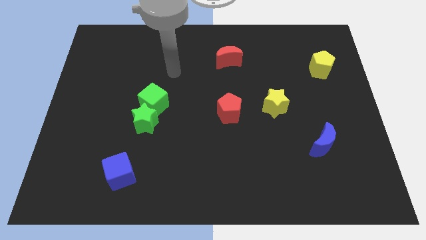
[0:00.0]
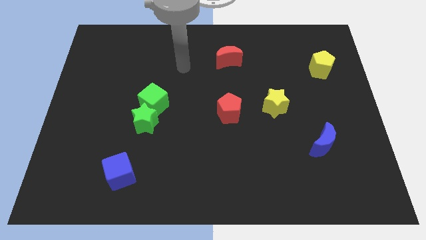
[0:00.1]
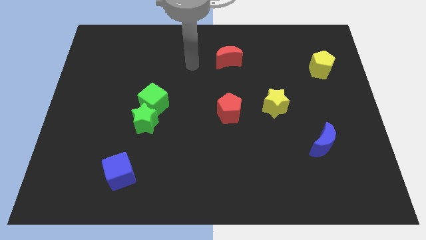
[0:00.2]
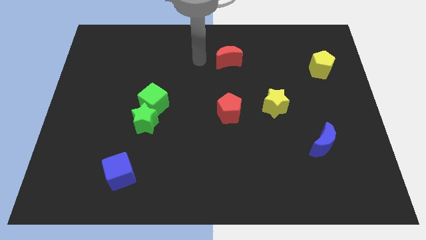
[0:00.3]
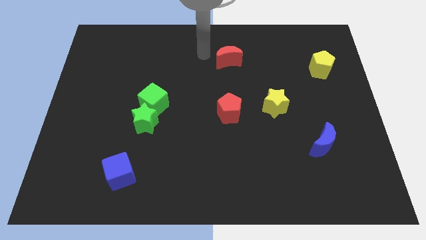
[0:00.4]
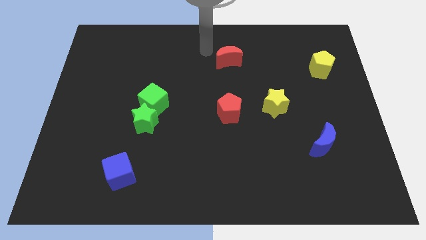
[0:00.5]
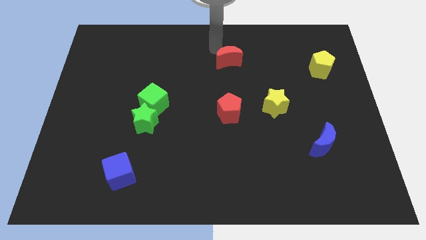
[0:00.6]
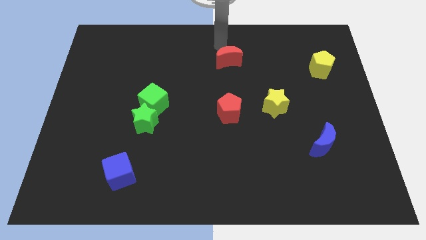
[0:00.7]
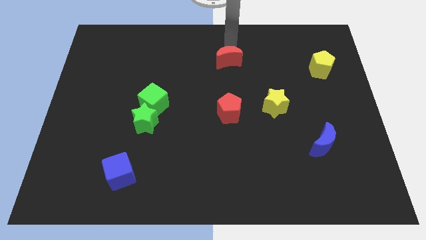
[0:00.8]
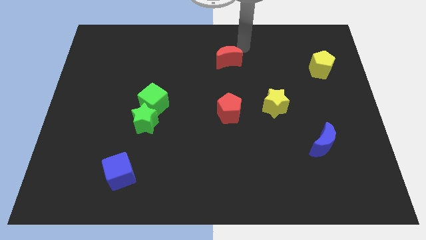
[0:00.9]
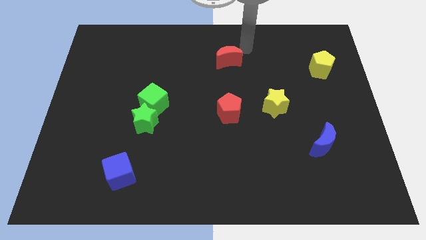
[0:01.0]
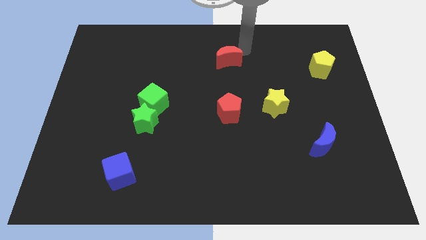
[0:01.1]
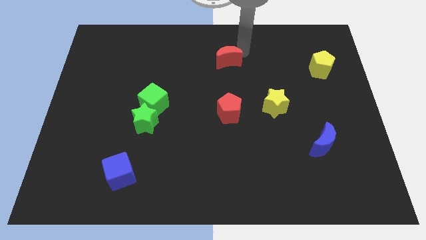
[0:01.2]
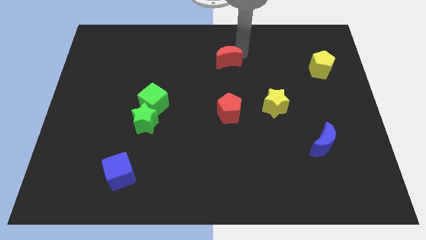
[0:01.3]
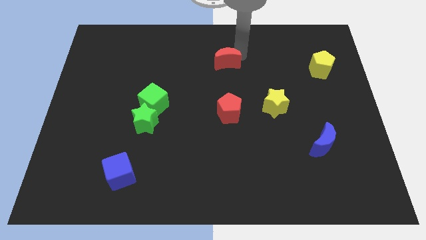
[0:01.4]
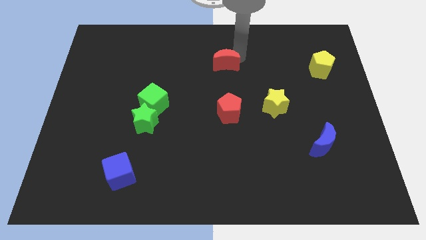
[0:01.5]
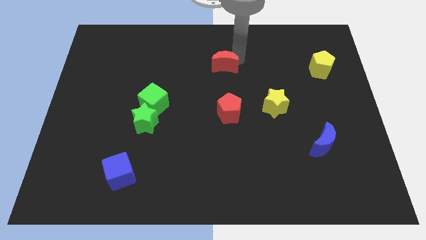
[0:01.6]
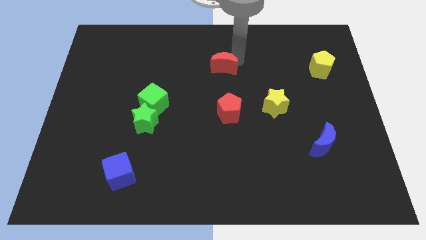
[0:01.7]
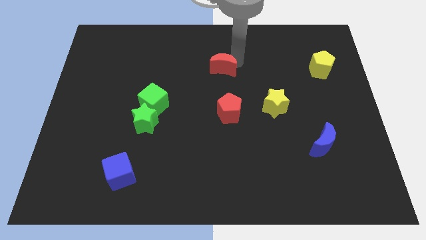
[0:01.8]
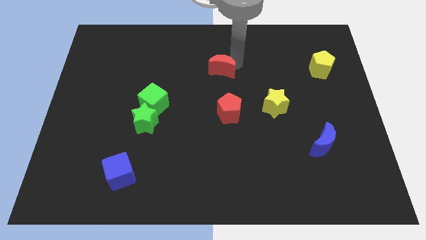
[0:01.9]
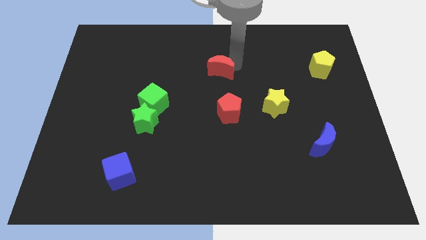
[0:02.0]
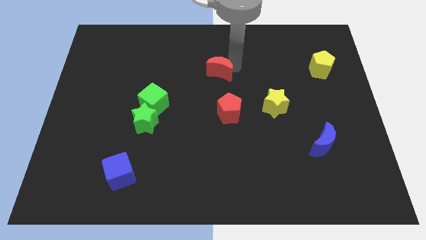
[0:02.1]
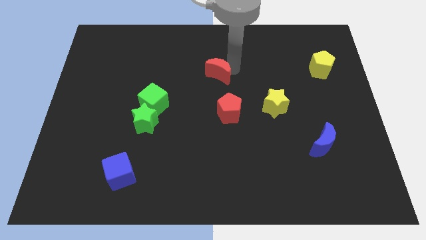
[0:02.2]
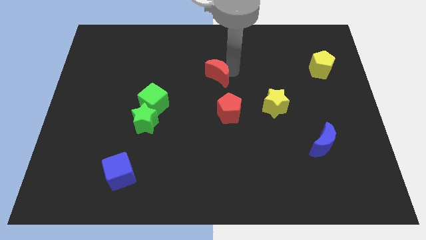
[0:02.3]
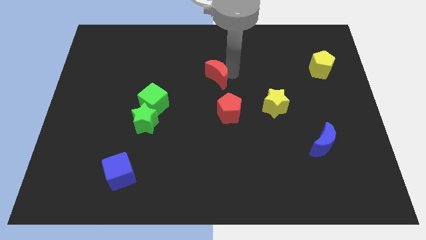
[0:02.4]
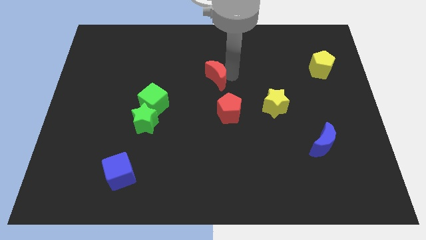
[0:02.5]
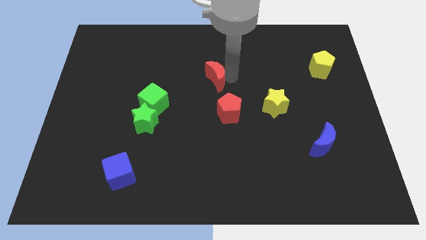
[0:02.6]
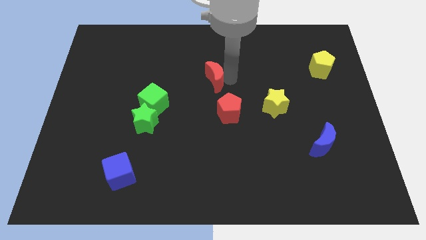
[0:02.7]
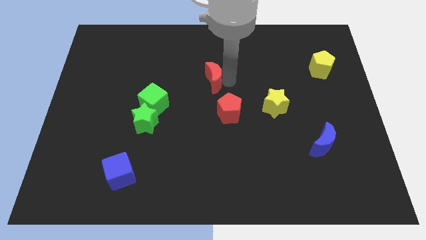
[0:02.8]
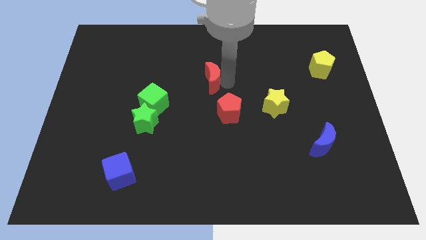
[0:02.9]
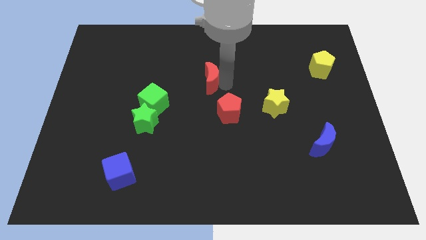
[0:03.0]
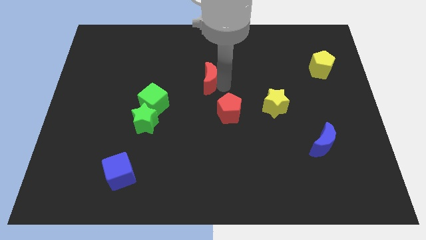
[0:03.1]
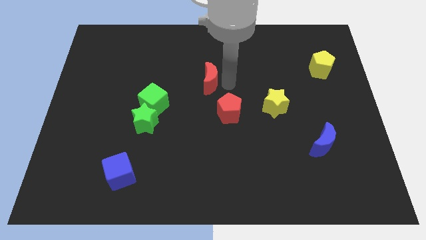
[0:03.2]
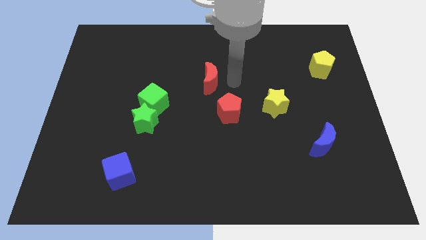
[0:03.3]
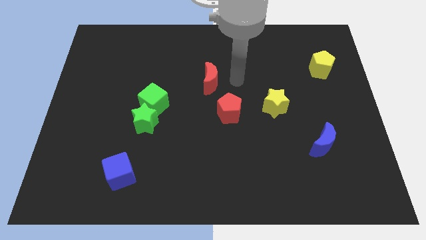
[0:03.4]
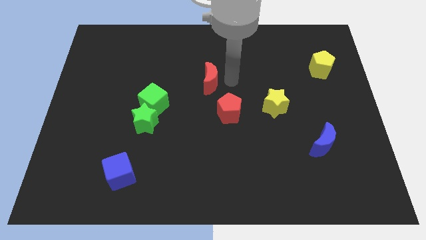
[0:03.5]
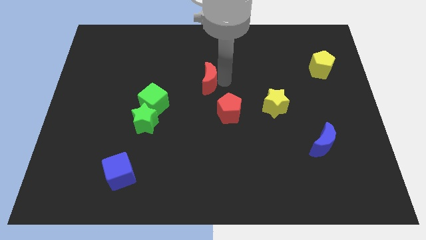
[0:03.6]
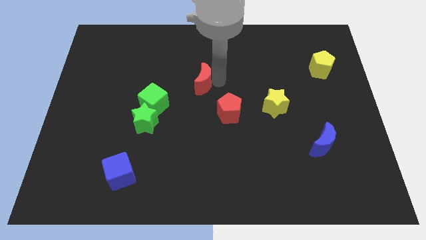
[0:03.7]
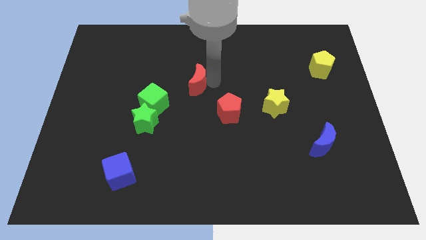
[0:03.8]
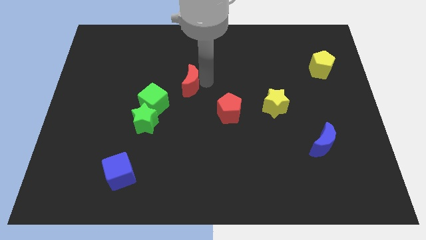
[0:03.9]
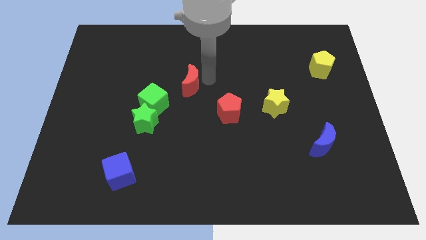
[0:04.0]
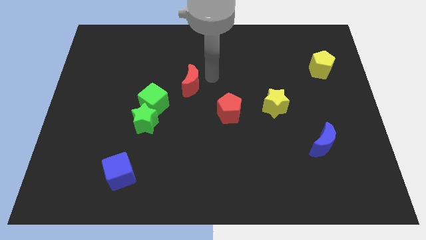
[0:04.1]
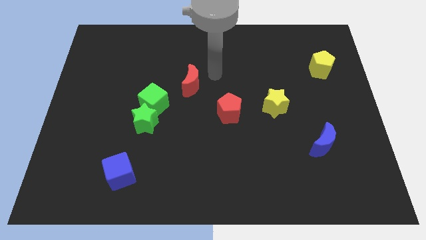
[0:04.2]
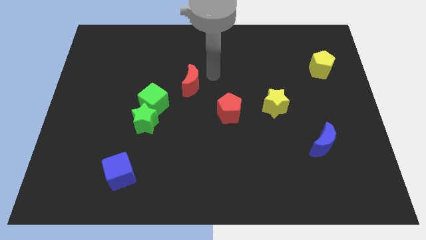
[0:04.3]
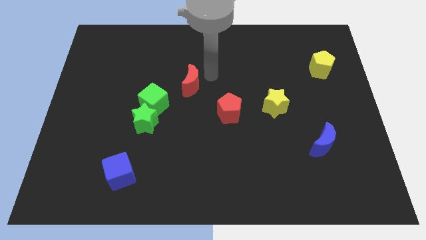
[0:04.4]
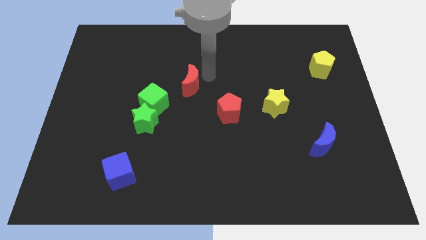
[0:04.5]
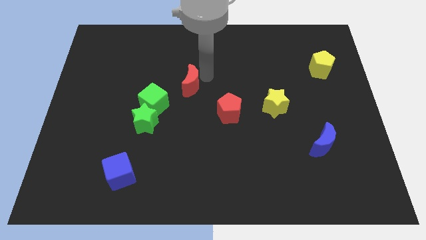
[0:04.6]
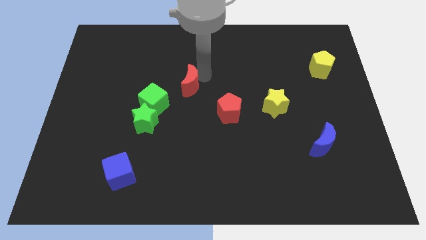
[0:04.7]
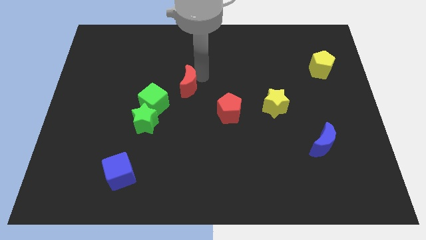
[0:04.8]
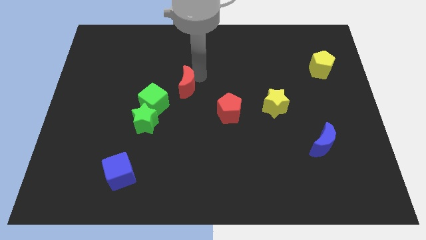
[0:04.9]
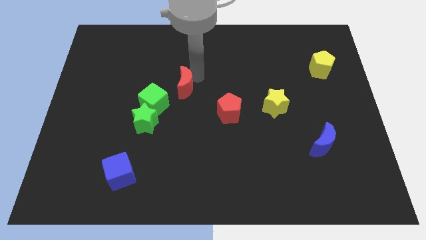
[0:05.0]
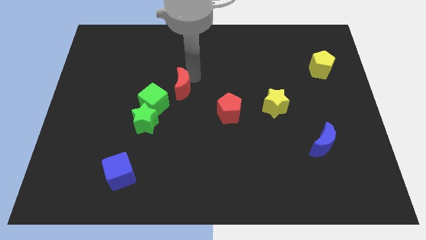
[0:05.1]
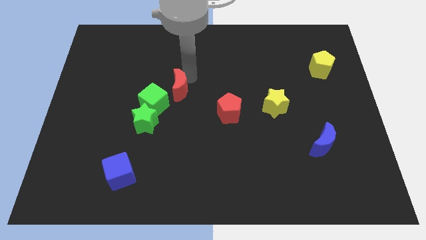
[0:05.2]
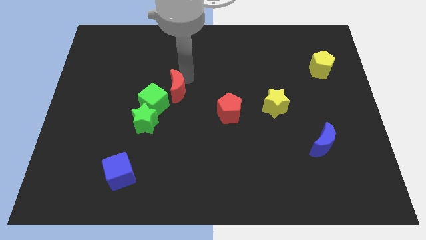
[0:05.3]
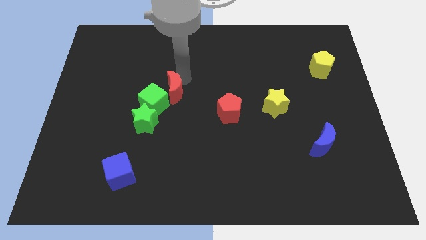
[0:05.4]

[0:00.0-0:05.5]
move the red moon towards the green cube

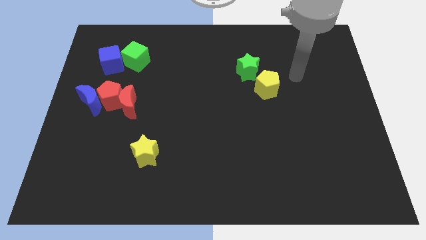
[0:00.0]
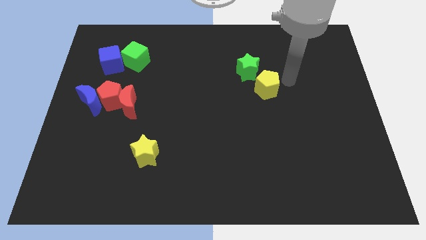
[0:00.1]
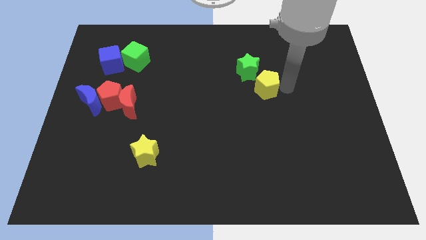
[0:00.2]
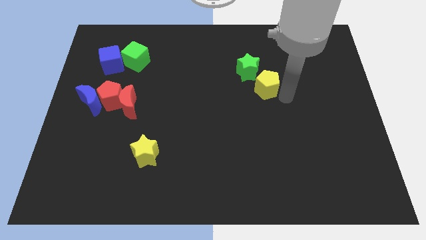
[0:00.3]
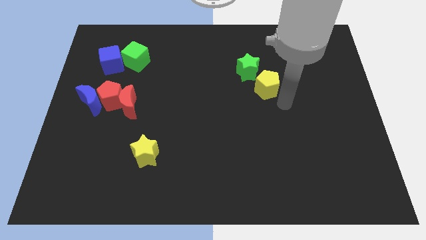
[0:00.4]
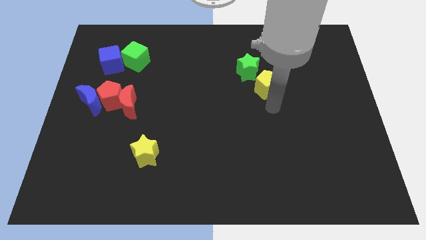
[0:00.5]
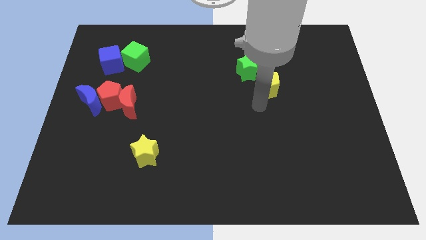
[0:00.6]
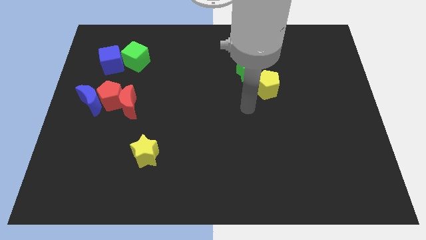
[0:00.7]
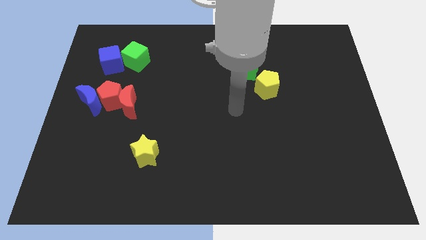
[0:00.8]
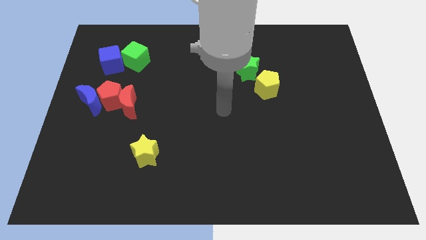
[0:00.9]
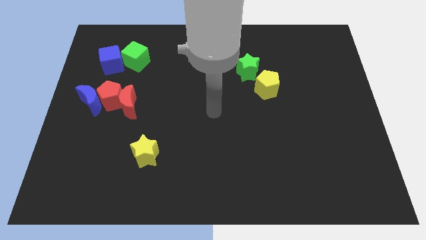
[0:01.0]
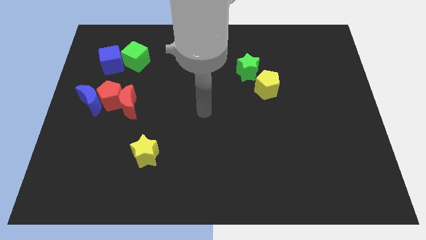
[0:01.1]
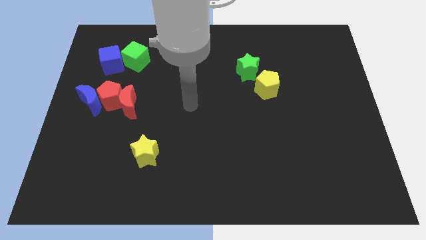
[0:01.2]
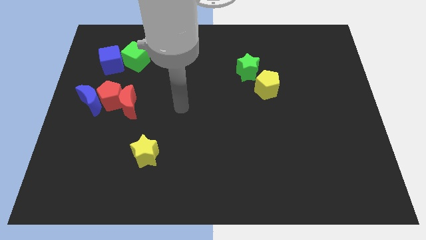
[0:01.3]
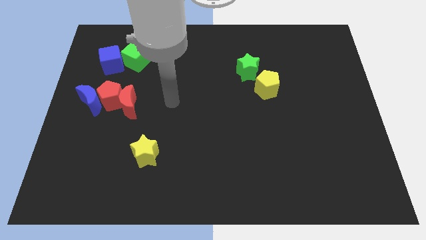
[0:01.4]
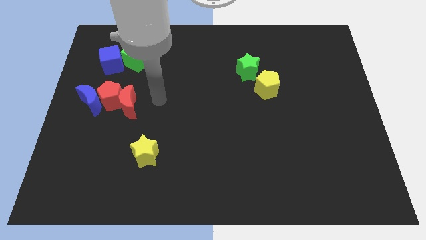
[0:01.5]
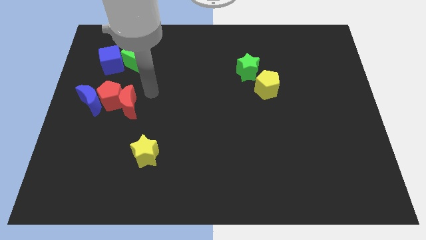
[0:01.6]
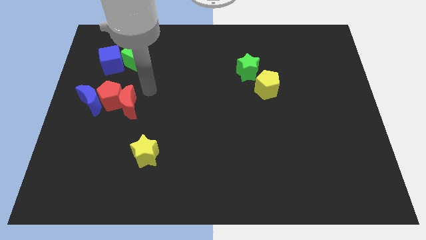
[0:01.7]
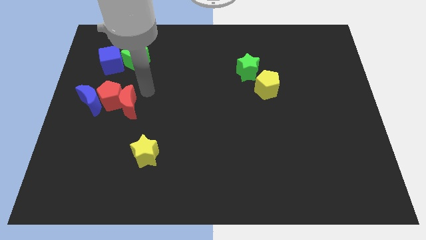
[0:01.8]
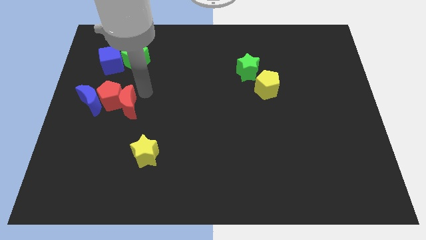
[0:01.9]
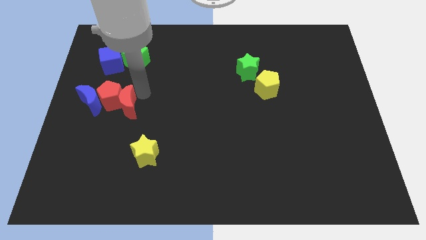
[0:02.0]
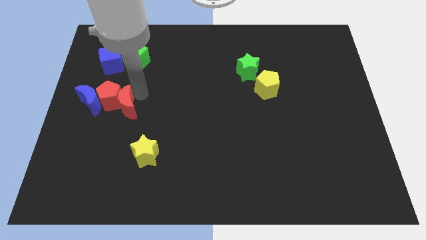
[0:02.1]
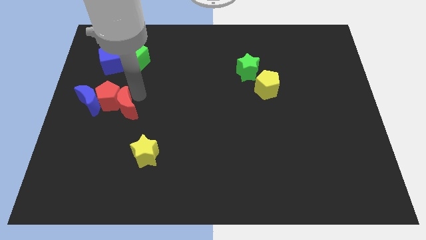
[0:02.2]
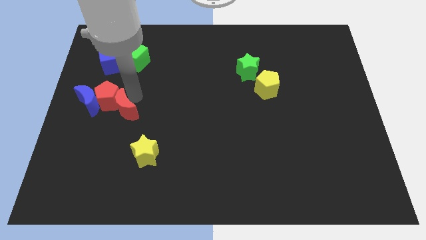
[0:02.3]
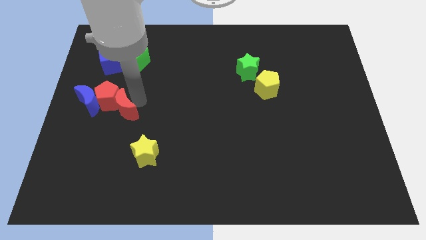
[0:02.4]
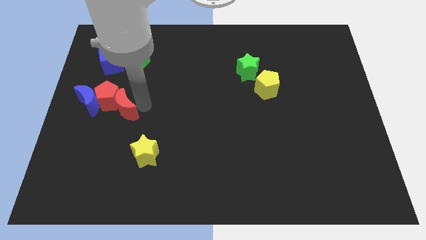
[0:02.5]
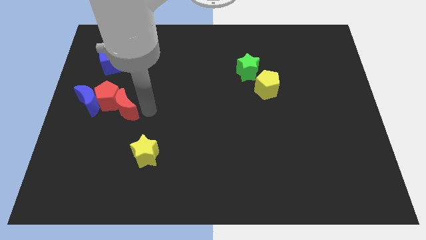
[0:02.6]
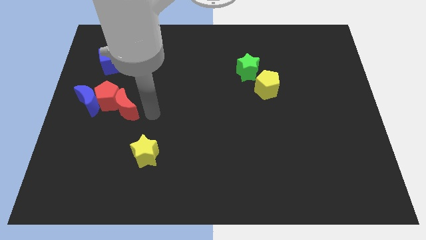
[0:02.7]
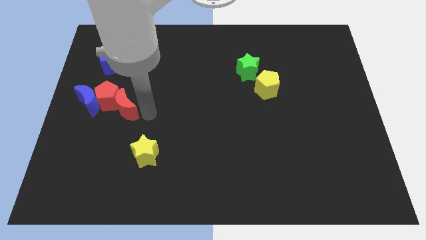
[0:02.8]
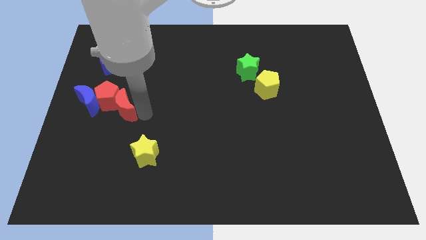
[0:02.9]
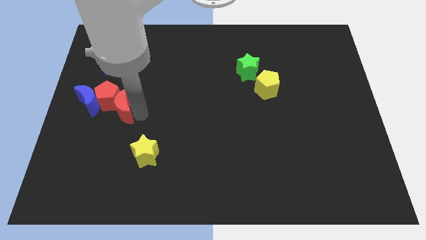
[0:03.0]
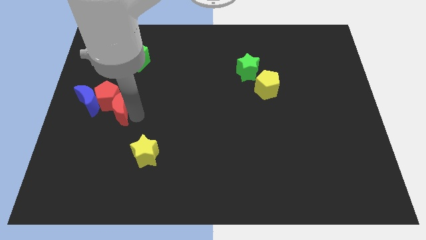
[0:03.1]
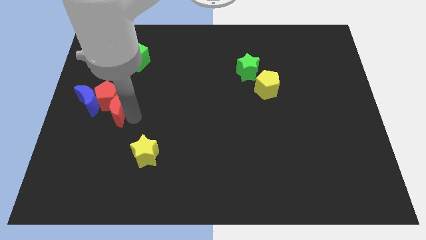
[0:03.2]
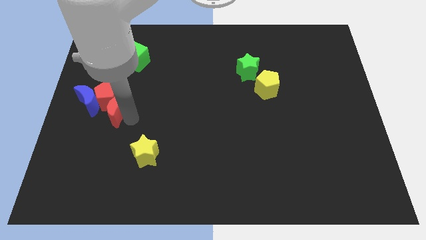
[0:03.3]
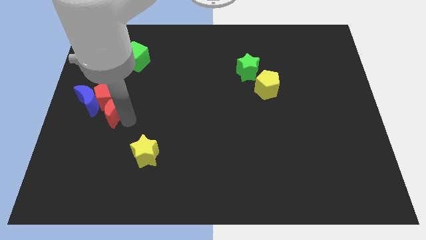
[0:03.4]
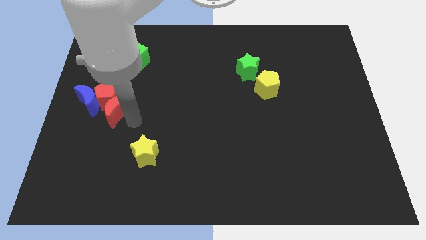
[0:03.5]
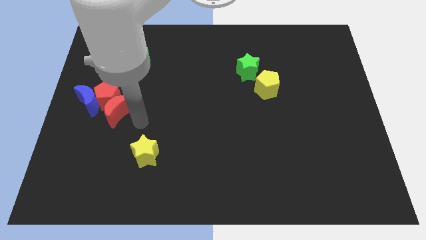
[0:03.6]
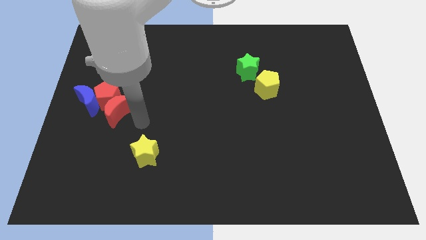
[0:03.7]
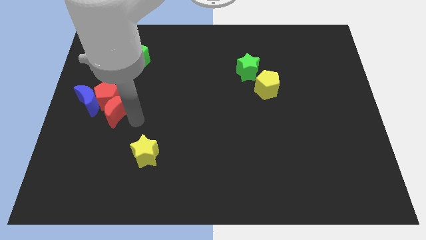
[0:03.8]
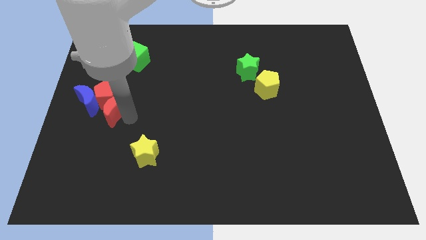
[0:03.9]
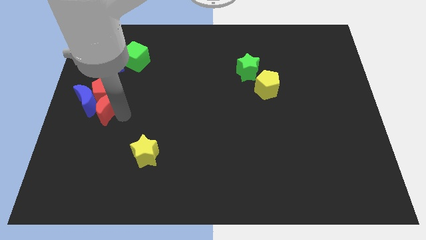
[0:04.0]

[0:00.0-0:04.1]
push the red moon close to the blue moon
